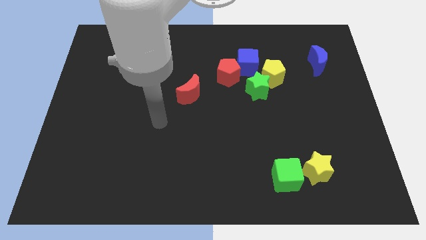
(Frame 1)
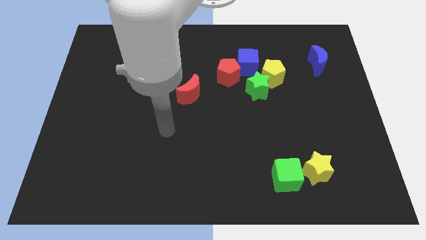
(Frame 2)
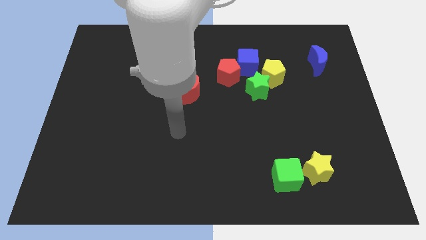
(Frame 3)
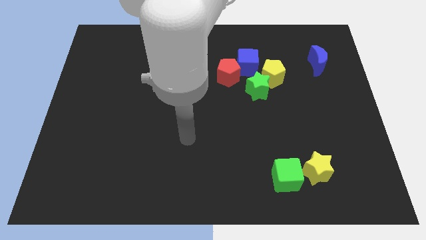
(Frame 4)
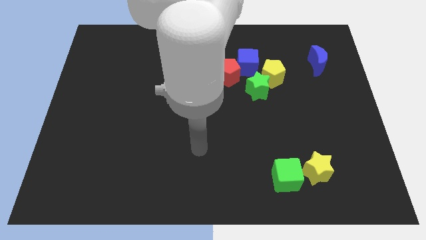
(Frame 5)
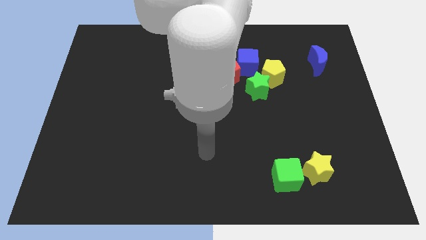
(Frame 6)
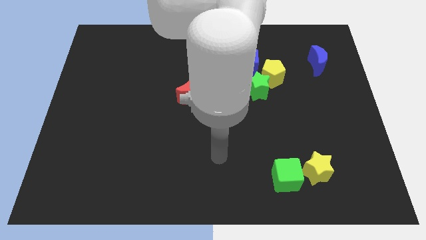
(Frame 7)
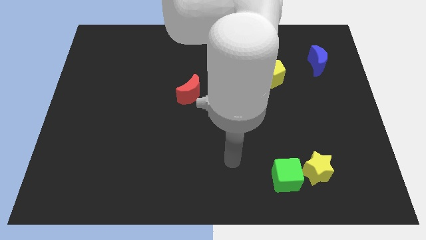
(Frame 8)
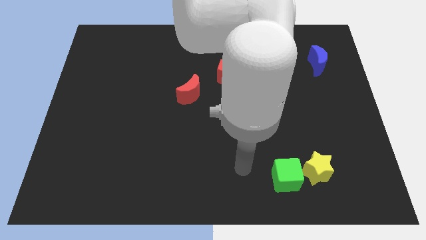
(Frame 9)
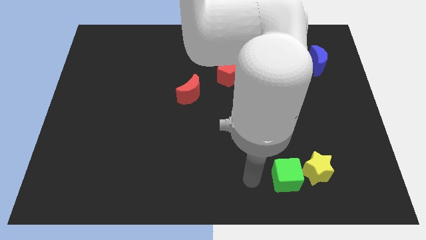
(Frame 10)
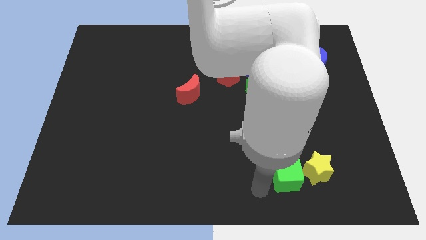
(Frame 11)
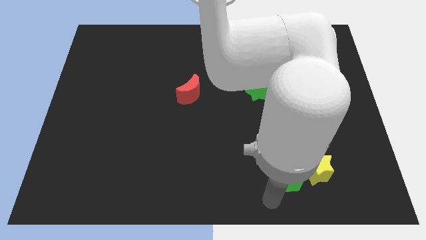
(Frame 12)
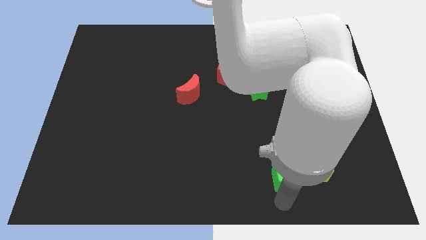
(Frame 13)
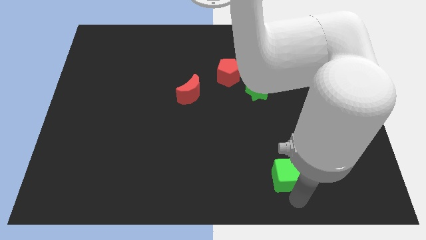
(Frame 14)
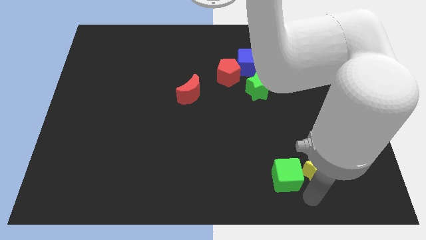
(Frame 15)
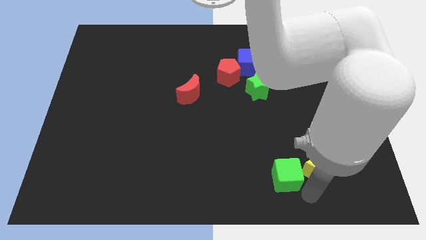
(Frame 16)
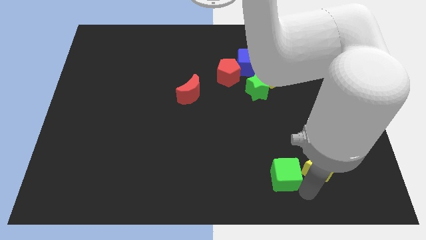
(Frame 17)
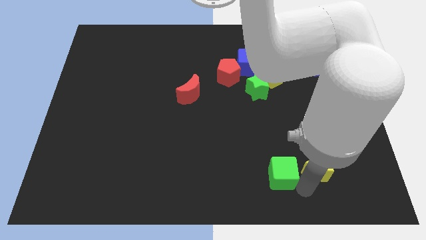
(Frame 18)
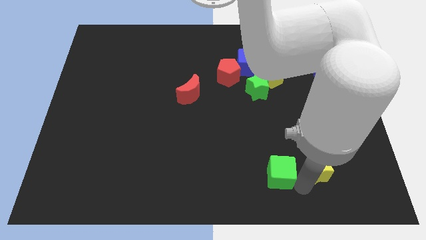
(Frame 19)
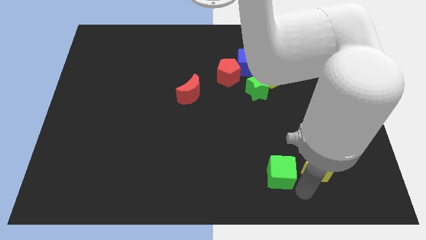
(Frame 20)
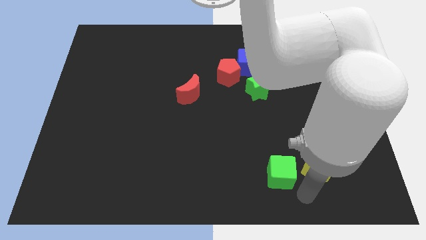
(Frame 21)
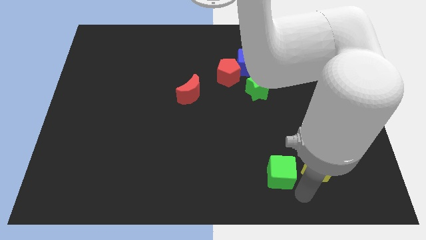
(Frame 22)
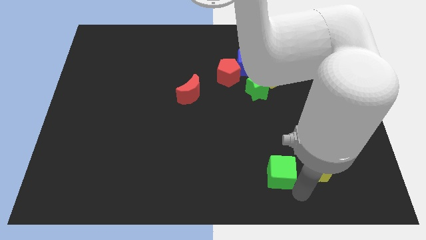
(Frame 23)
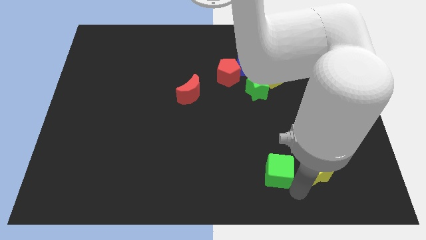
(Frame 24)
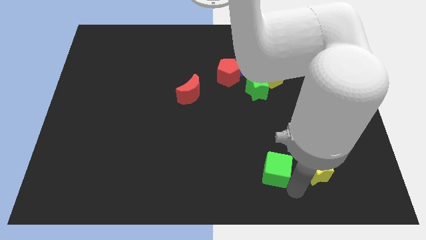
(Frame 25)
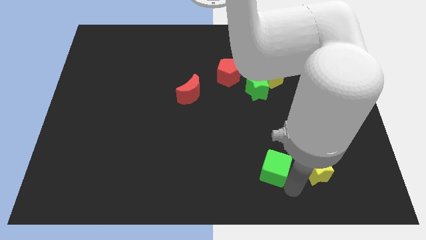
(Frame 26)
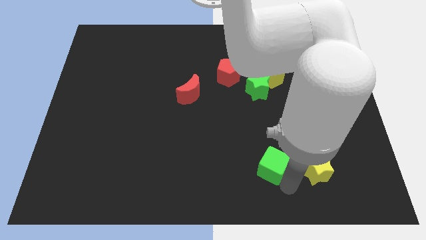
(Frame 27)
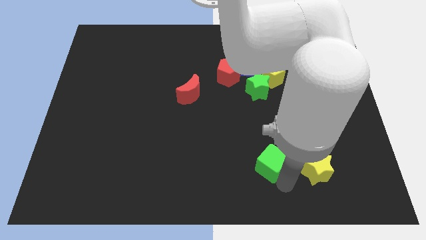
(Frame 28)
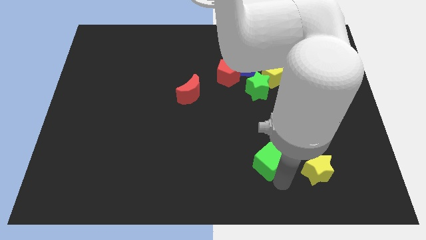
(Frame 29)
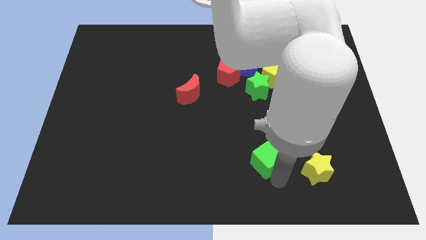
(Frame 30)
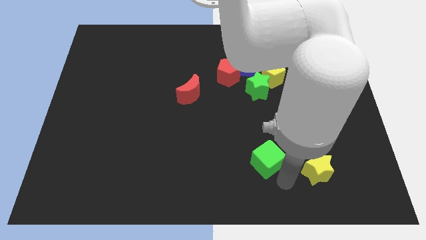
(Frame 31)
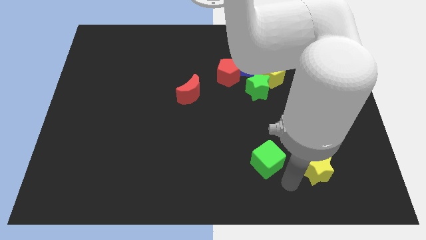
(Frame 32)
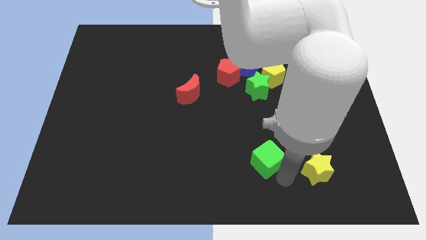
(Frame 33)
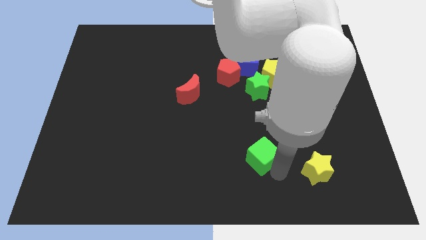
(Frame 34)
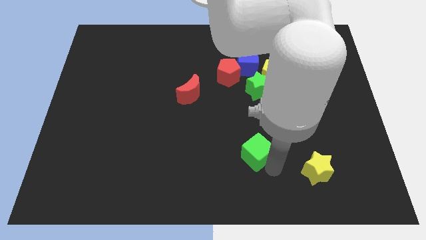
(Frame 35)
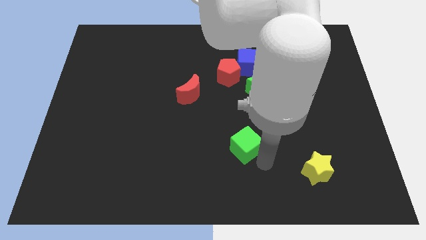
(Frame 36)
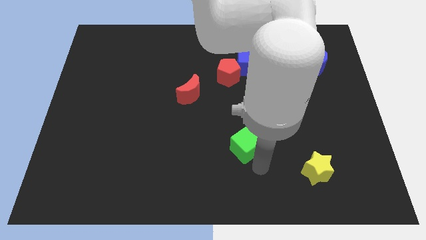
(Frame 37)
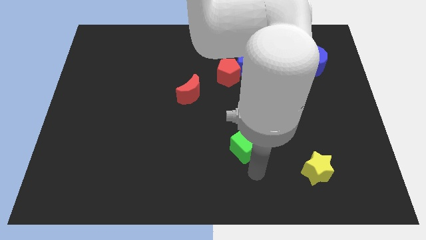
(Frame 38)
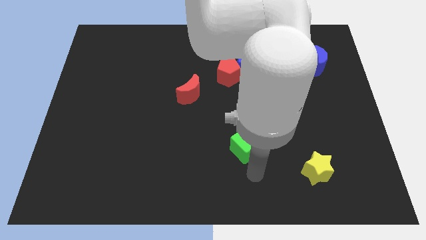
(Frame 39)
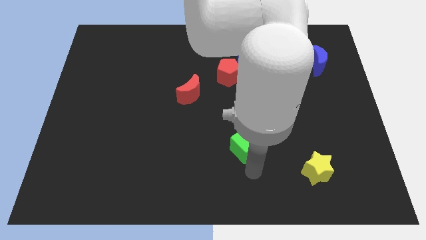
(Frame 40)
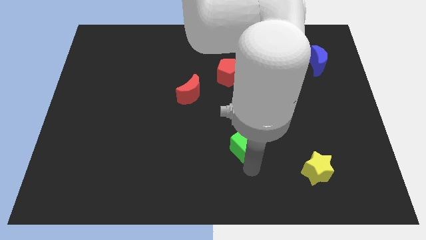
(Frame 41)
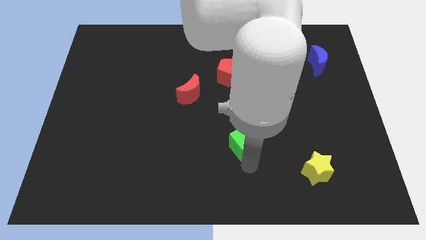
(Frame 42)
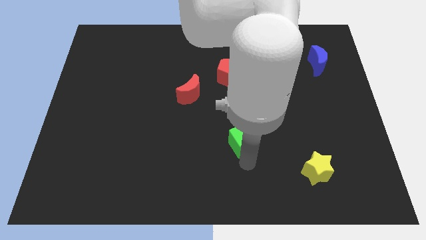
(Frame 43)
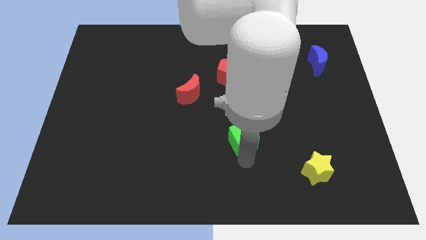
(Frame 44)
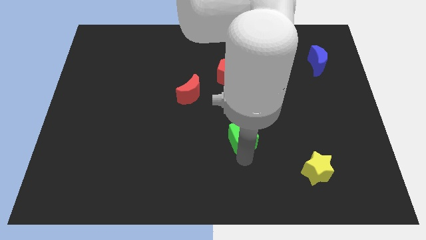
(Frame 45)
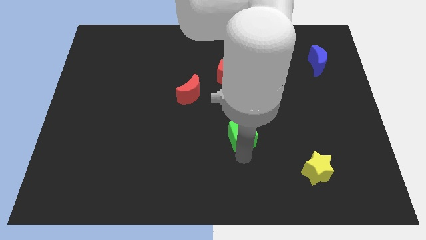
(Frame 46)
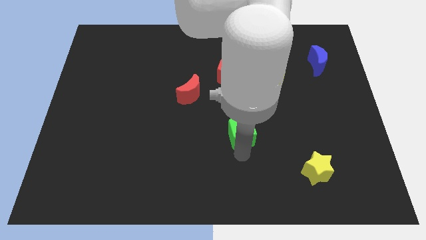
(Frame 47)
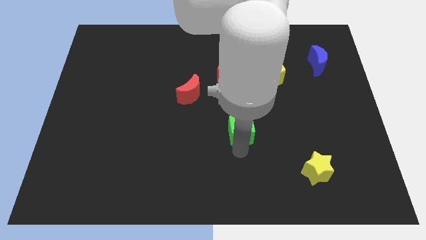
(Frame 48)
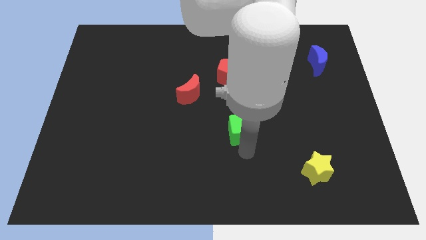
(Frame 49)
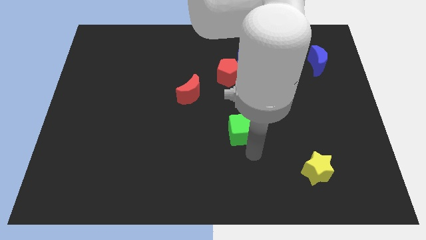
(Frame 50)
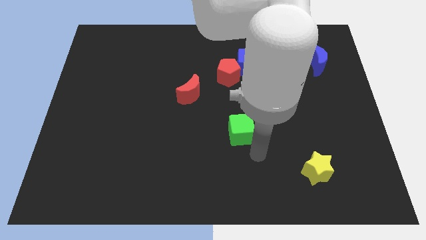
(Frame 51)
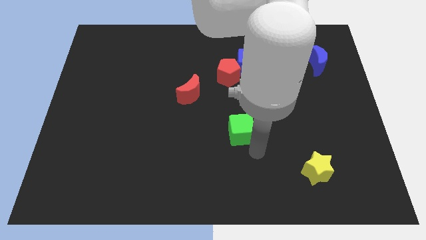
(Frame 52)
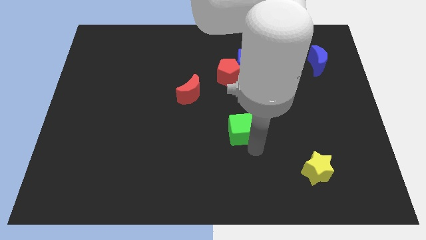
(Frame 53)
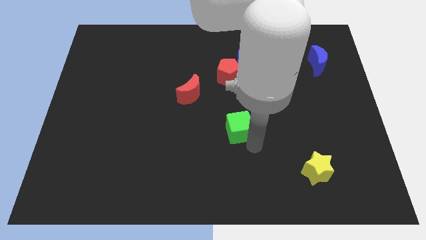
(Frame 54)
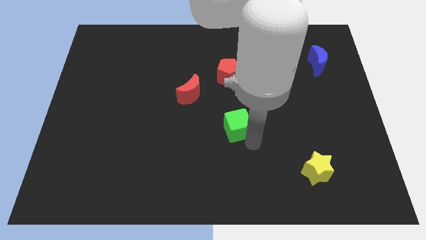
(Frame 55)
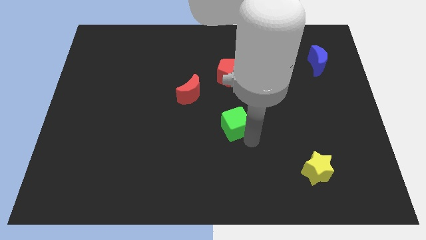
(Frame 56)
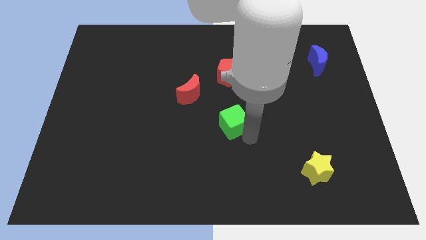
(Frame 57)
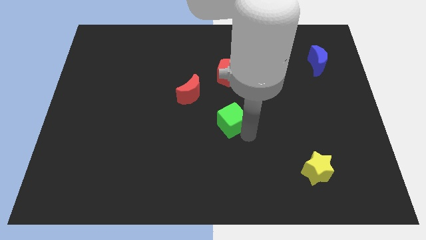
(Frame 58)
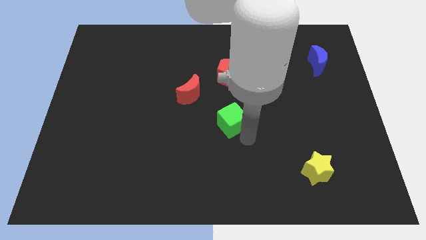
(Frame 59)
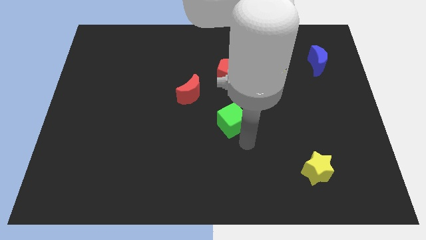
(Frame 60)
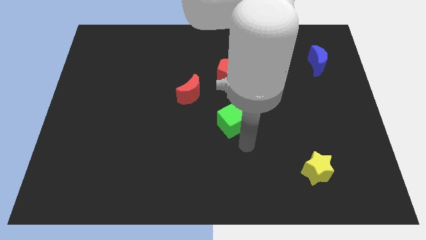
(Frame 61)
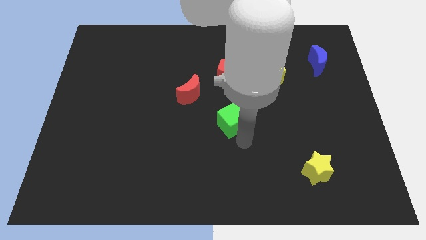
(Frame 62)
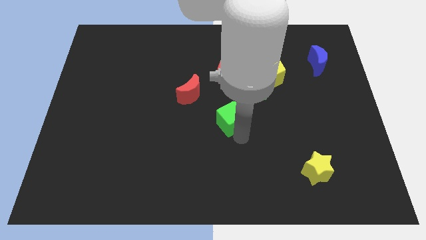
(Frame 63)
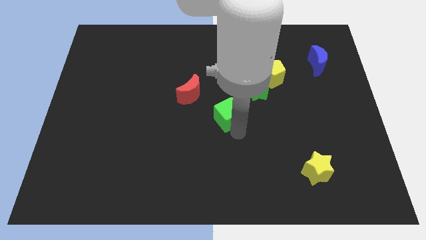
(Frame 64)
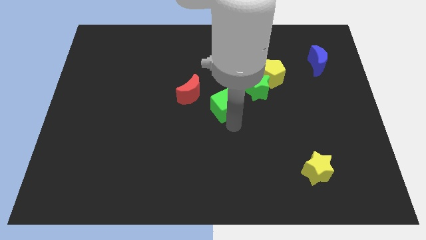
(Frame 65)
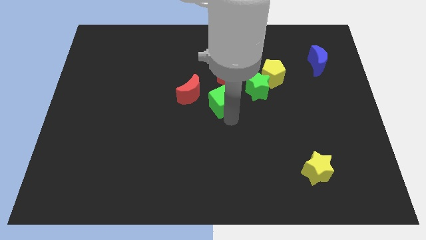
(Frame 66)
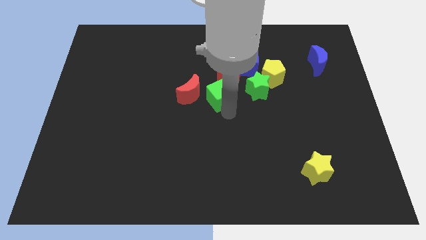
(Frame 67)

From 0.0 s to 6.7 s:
put the green cube to the bottom left of the red pentagon

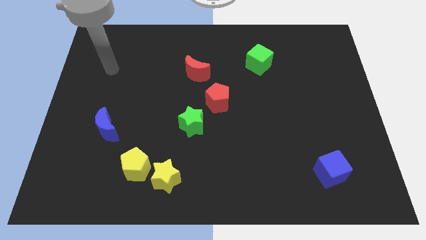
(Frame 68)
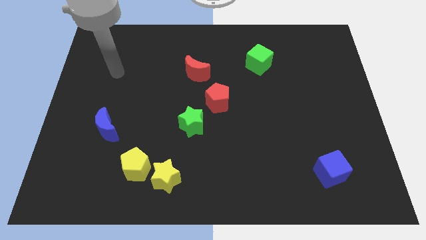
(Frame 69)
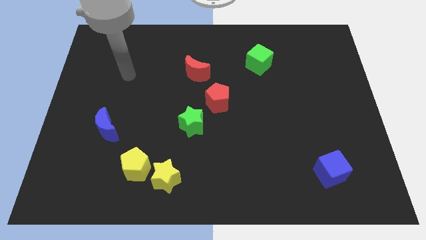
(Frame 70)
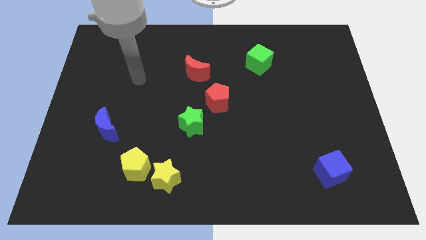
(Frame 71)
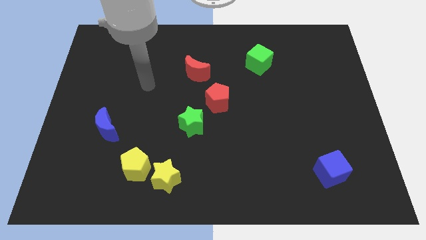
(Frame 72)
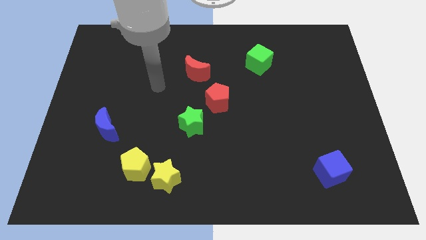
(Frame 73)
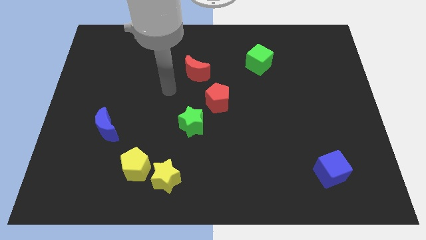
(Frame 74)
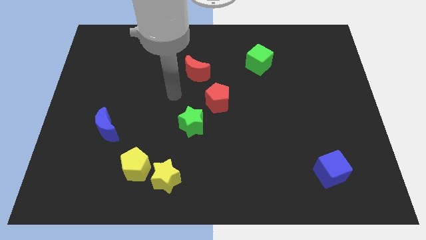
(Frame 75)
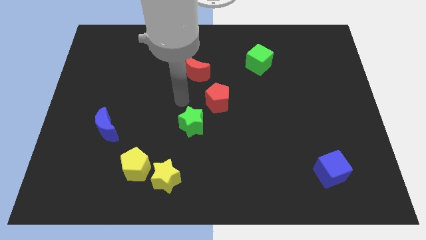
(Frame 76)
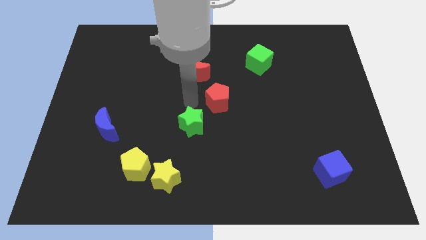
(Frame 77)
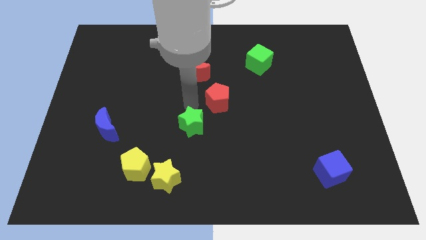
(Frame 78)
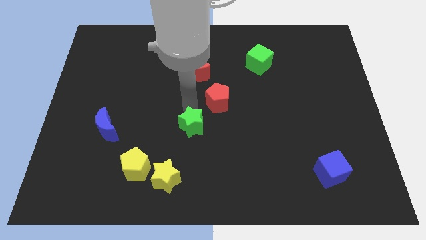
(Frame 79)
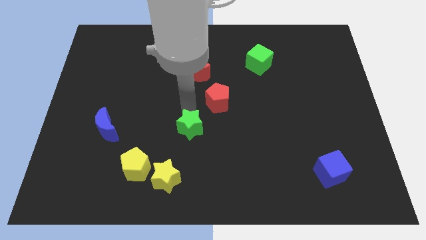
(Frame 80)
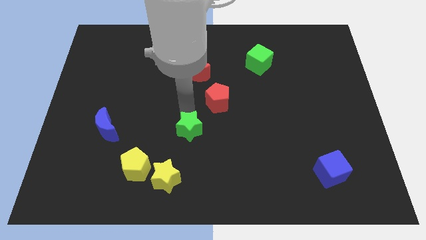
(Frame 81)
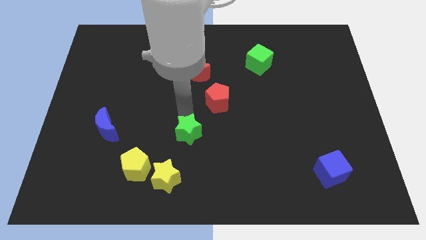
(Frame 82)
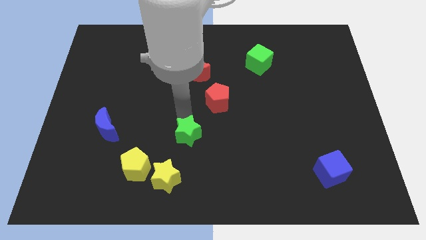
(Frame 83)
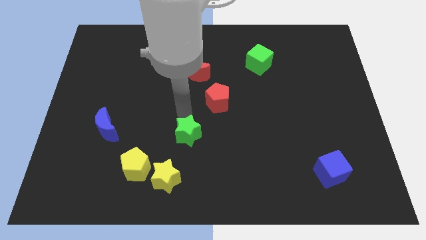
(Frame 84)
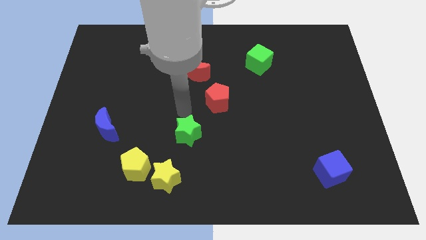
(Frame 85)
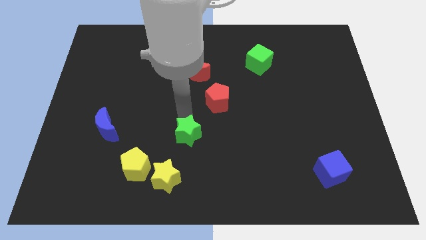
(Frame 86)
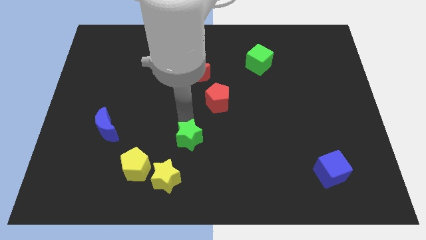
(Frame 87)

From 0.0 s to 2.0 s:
put the green star to the top right side of the yellow star
